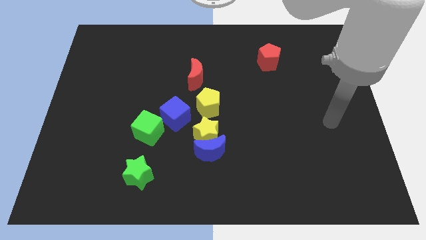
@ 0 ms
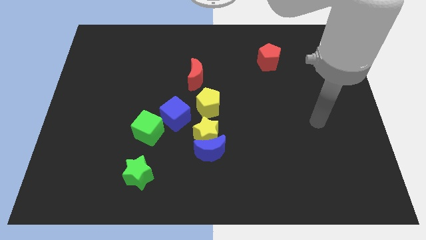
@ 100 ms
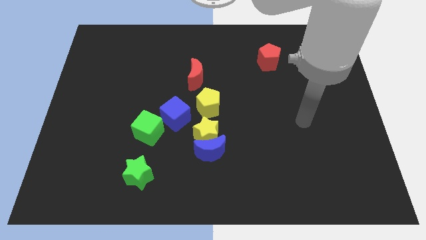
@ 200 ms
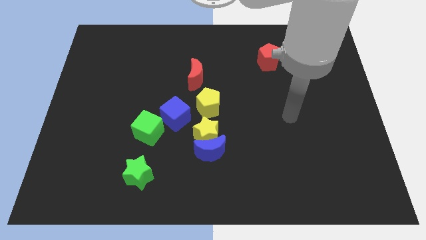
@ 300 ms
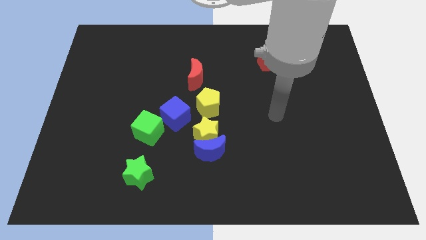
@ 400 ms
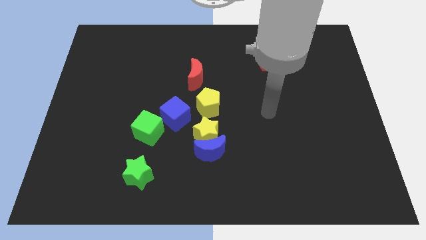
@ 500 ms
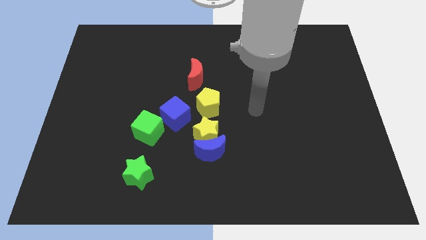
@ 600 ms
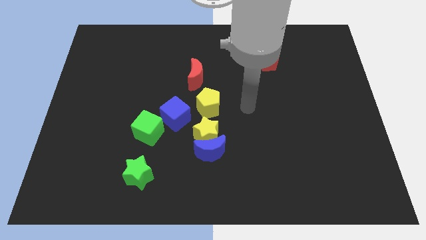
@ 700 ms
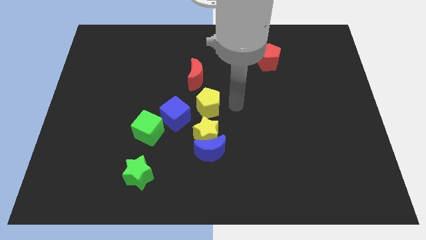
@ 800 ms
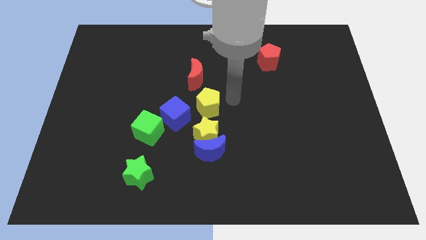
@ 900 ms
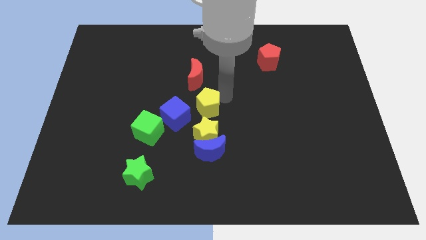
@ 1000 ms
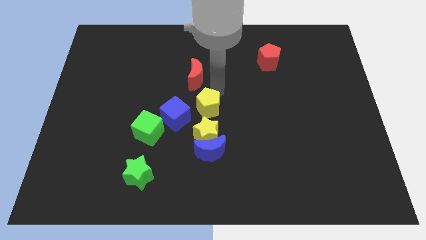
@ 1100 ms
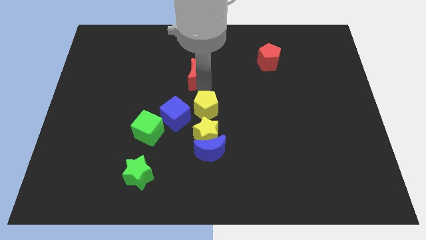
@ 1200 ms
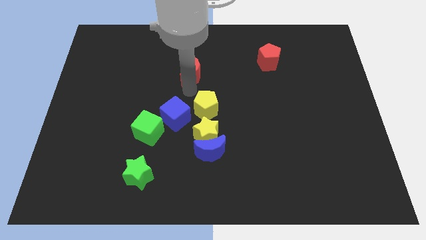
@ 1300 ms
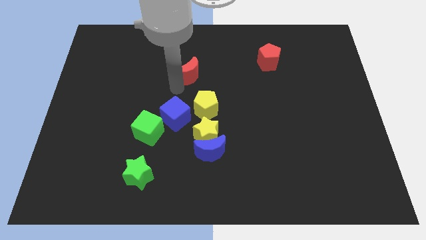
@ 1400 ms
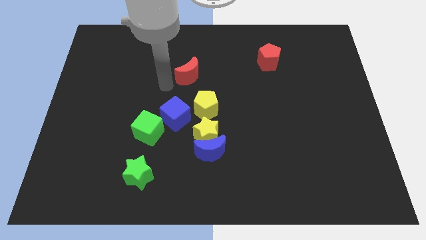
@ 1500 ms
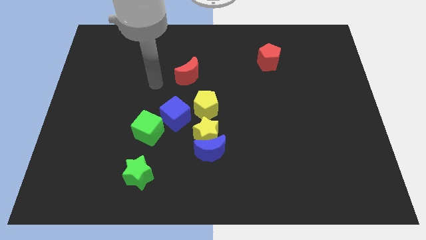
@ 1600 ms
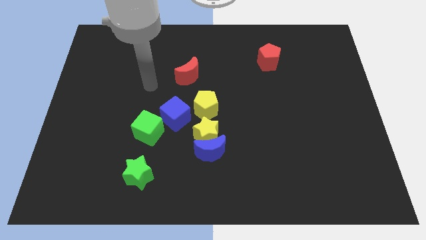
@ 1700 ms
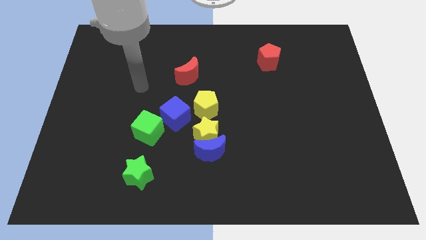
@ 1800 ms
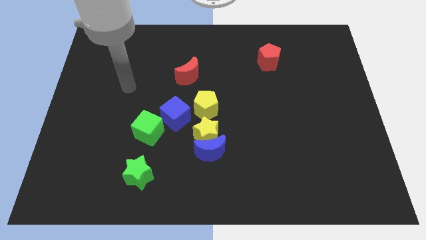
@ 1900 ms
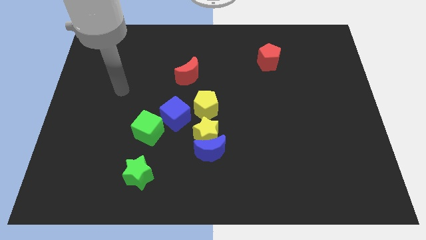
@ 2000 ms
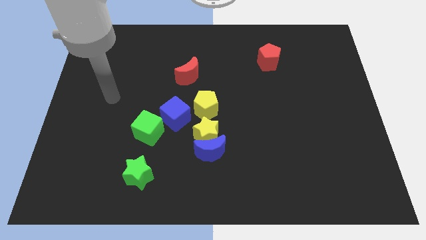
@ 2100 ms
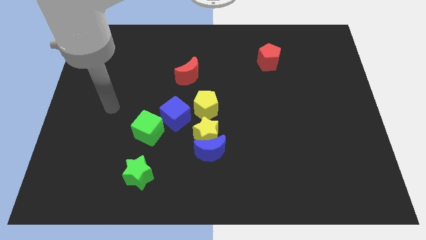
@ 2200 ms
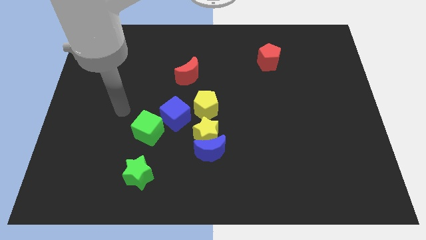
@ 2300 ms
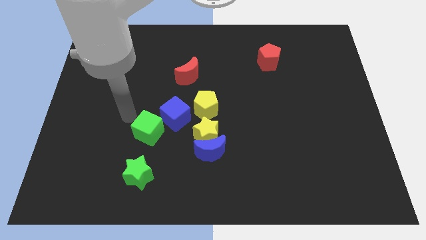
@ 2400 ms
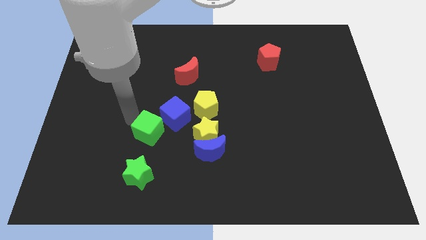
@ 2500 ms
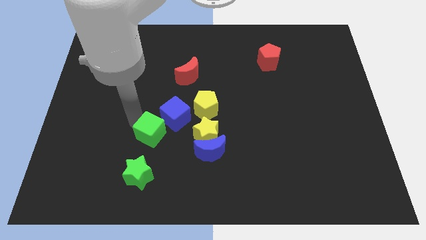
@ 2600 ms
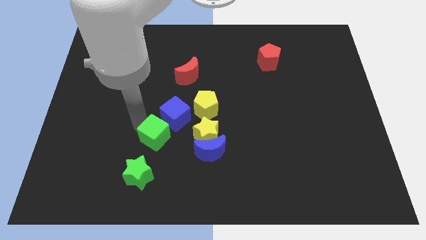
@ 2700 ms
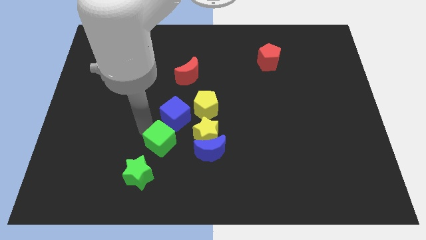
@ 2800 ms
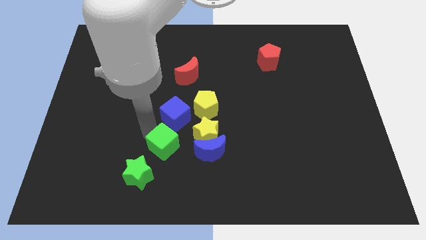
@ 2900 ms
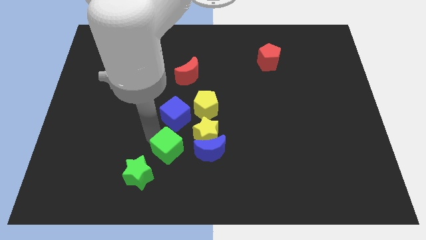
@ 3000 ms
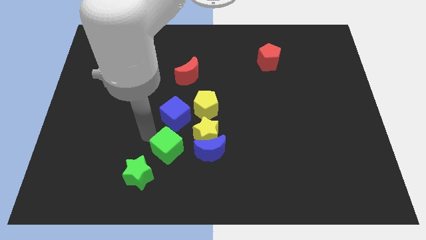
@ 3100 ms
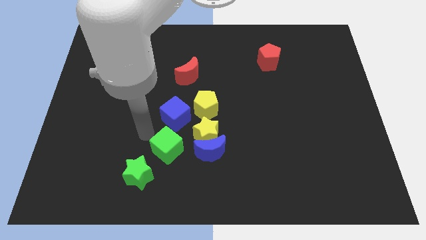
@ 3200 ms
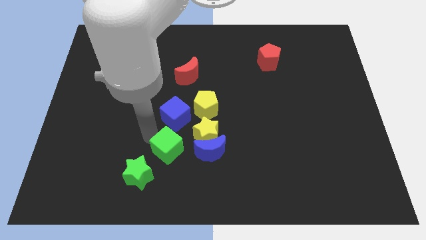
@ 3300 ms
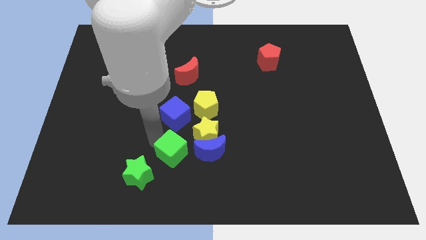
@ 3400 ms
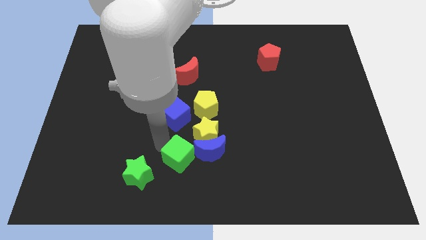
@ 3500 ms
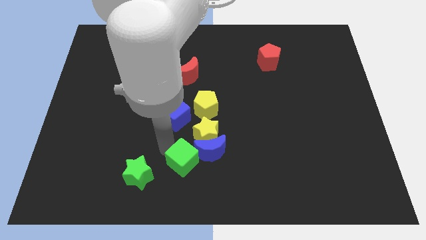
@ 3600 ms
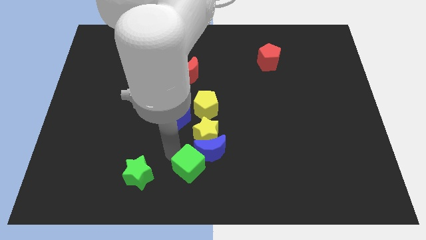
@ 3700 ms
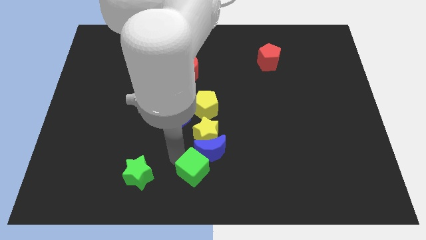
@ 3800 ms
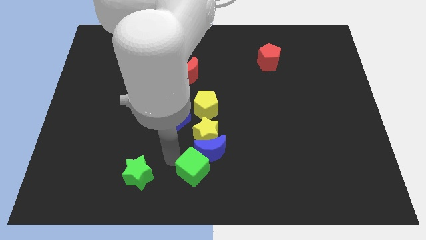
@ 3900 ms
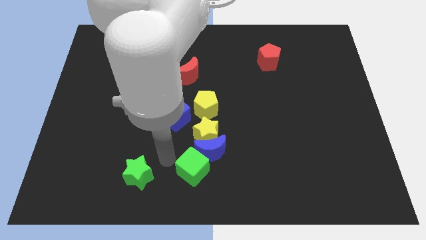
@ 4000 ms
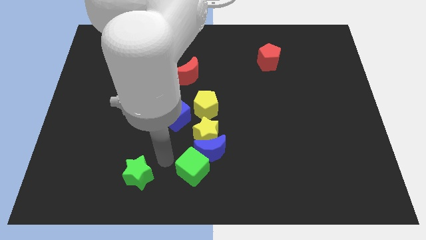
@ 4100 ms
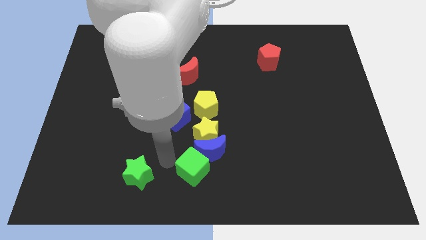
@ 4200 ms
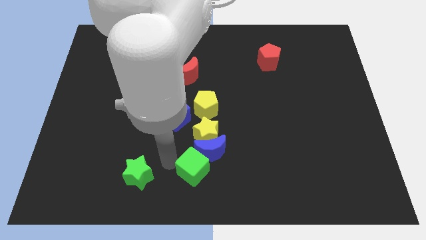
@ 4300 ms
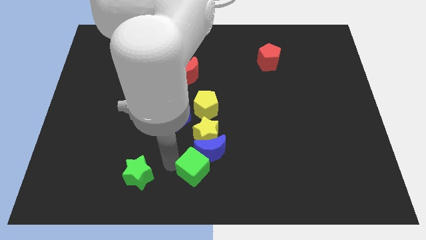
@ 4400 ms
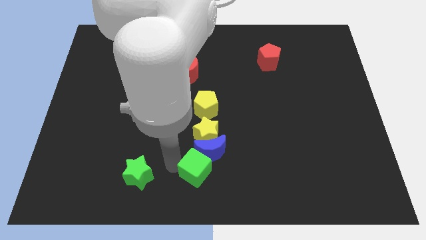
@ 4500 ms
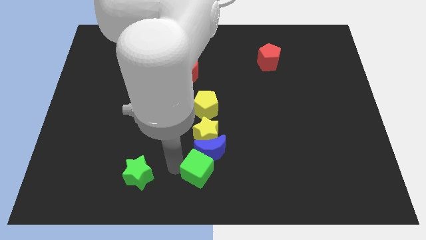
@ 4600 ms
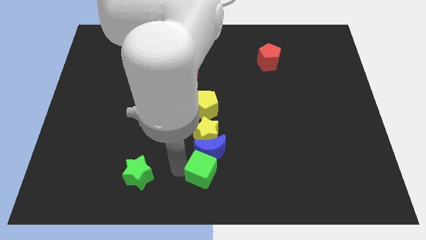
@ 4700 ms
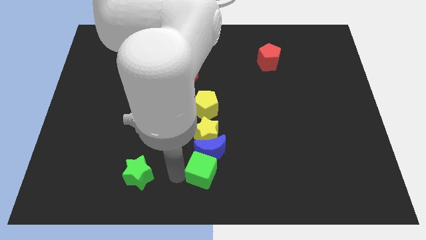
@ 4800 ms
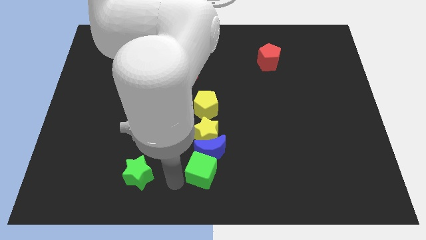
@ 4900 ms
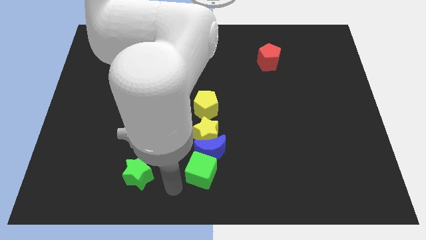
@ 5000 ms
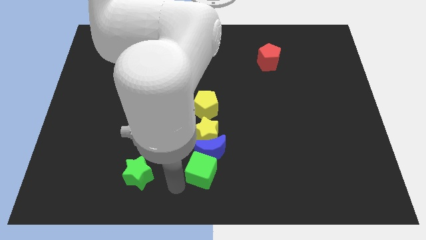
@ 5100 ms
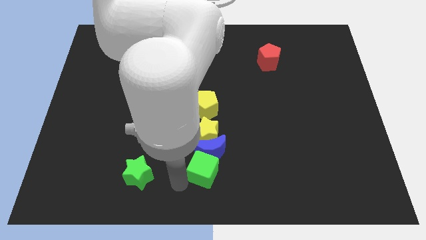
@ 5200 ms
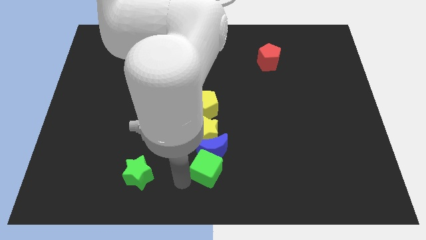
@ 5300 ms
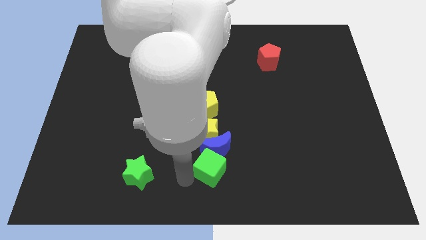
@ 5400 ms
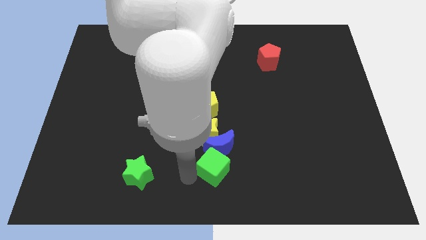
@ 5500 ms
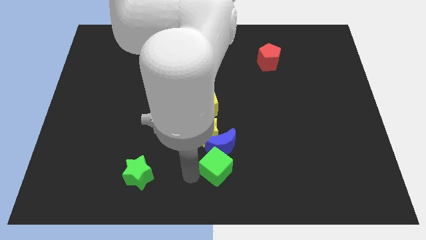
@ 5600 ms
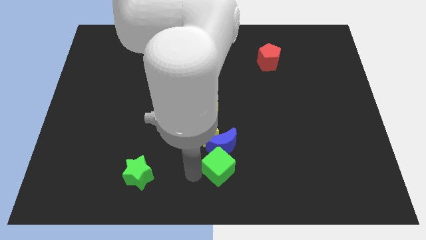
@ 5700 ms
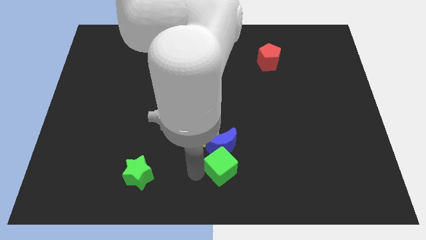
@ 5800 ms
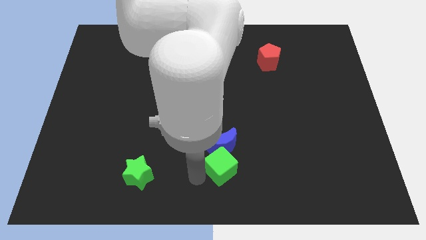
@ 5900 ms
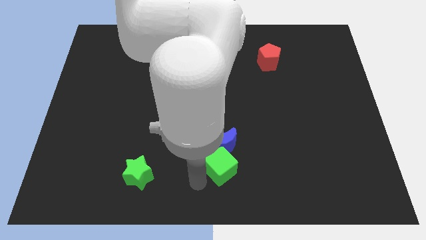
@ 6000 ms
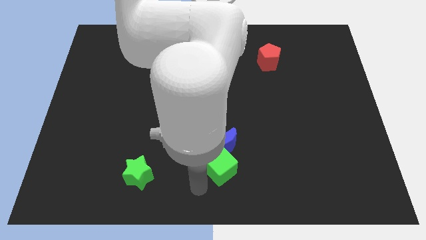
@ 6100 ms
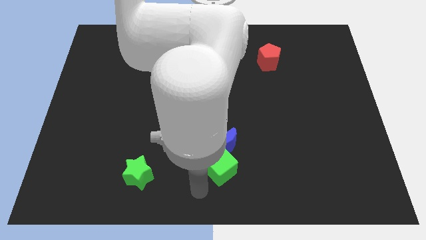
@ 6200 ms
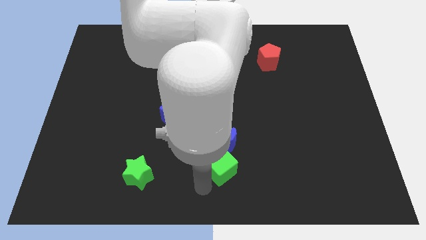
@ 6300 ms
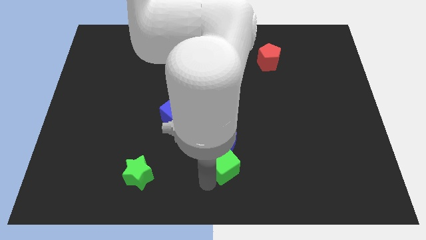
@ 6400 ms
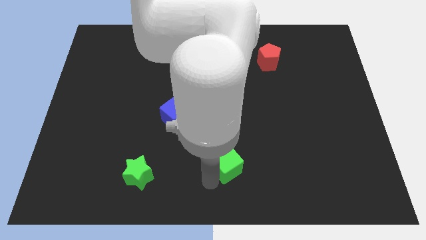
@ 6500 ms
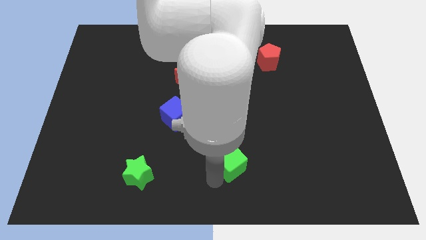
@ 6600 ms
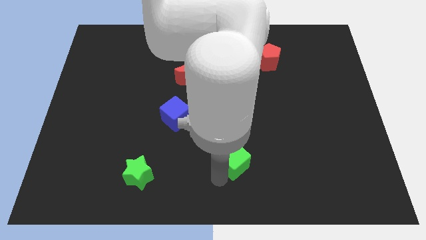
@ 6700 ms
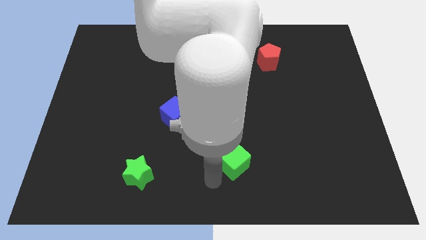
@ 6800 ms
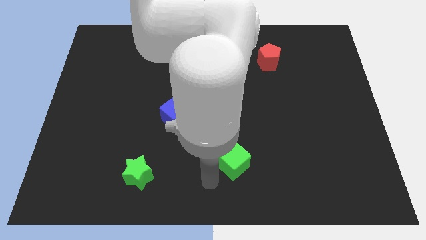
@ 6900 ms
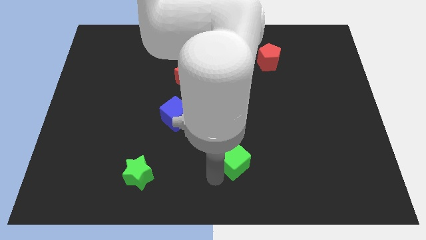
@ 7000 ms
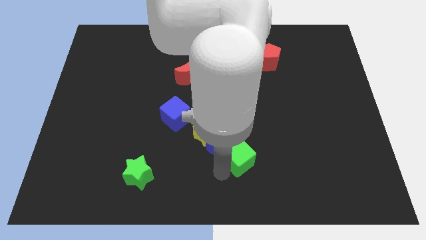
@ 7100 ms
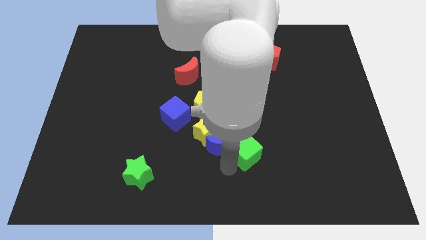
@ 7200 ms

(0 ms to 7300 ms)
push the green cube to the right

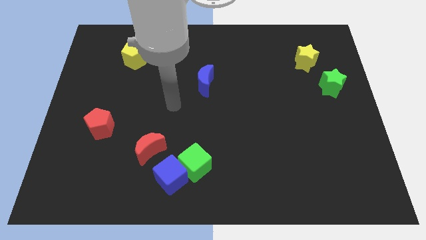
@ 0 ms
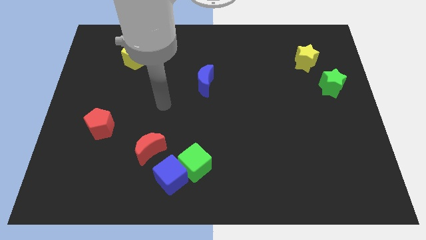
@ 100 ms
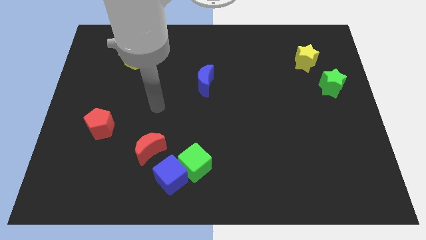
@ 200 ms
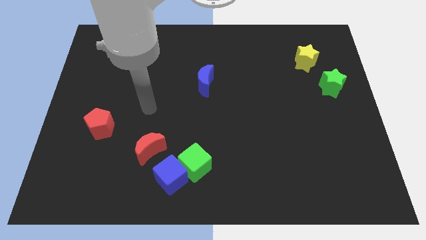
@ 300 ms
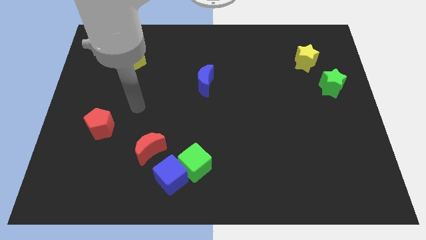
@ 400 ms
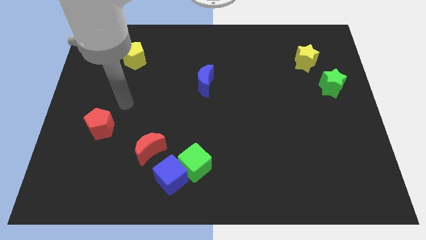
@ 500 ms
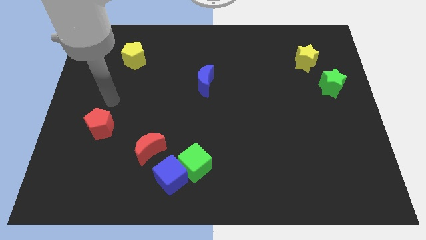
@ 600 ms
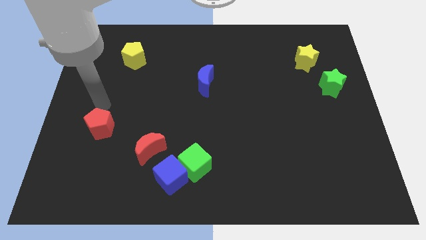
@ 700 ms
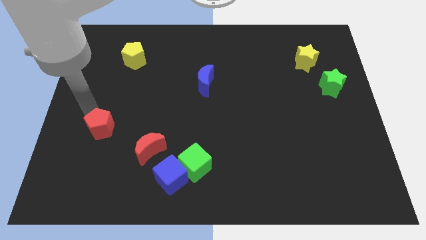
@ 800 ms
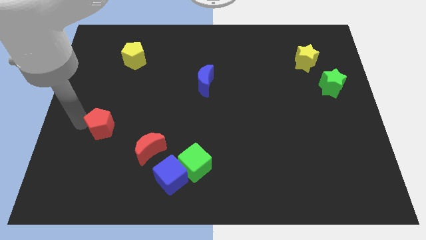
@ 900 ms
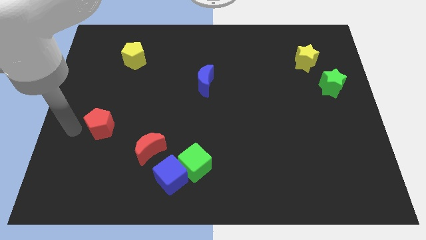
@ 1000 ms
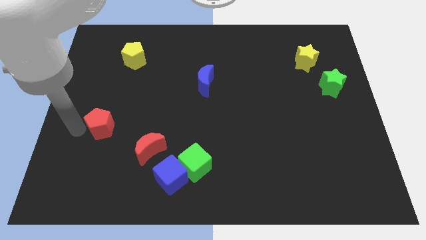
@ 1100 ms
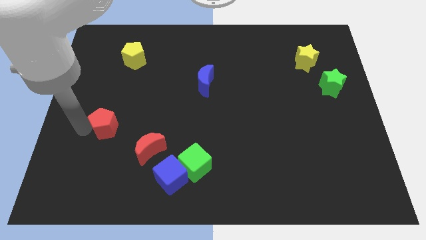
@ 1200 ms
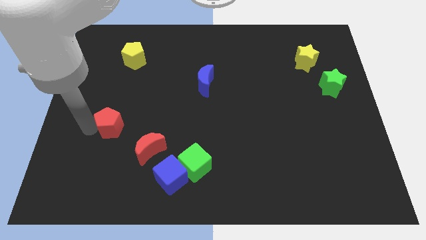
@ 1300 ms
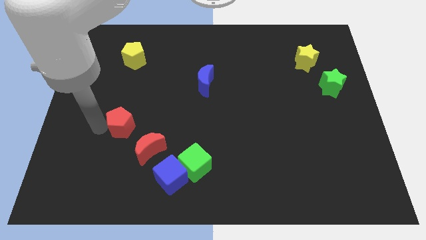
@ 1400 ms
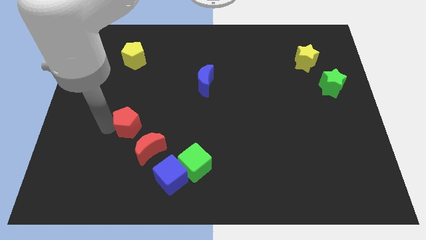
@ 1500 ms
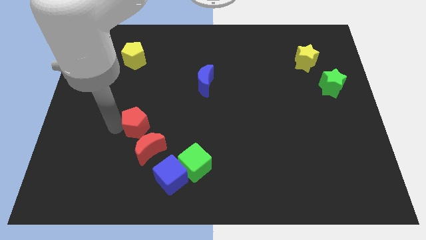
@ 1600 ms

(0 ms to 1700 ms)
push the red pentagon a bit to the right
